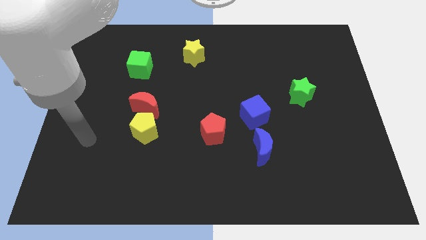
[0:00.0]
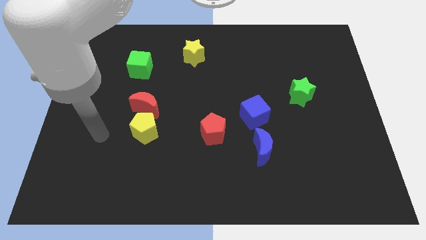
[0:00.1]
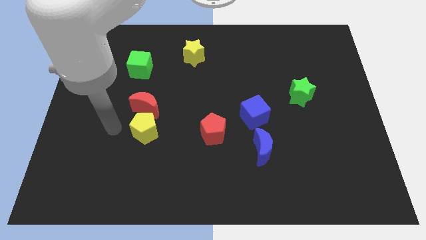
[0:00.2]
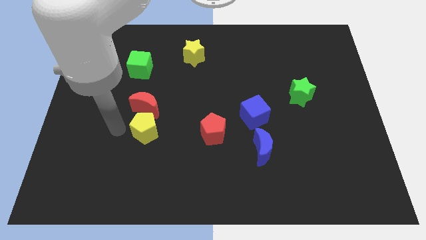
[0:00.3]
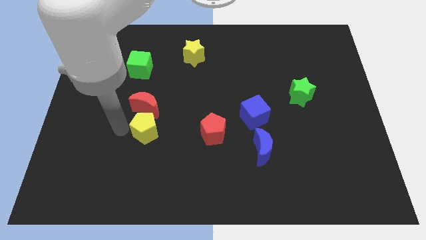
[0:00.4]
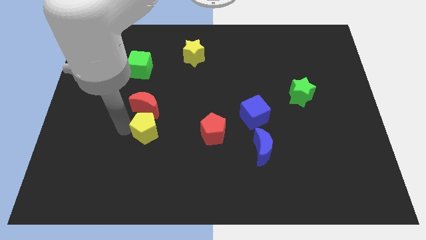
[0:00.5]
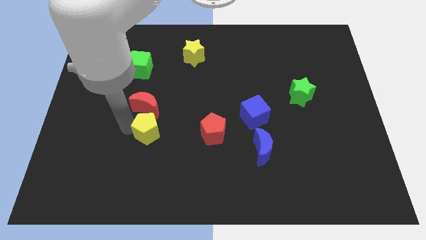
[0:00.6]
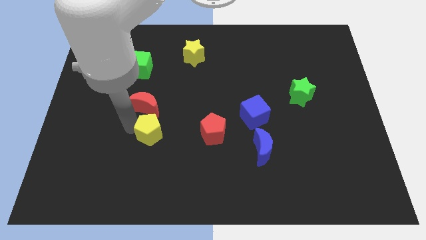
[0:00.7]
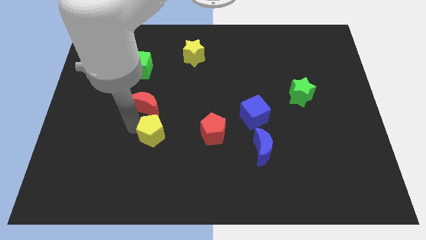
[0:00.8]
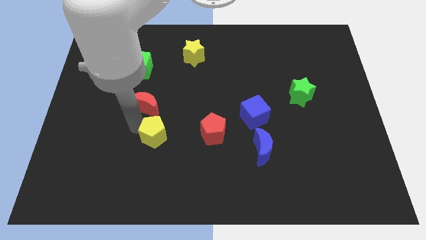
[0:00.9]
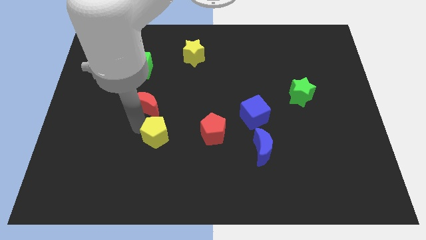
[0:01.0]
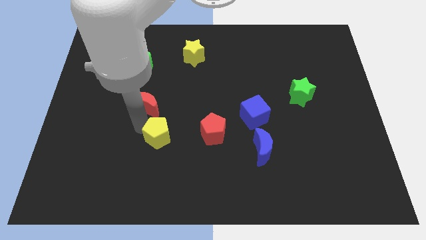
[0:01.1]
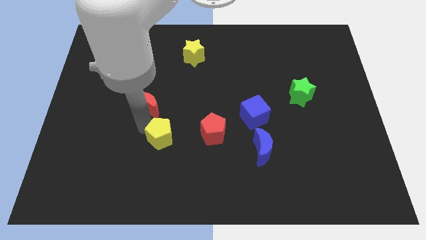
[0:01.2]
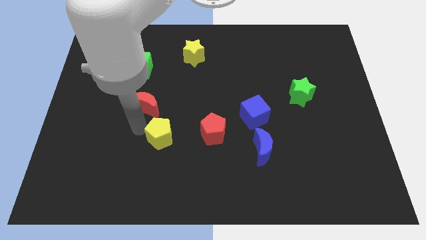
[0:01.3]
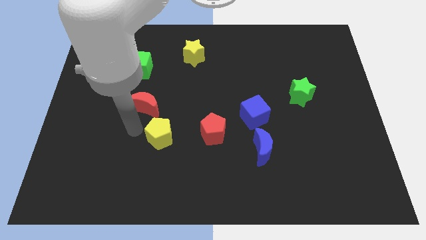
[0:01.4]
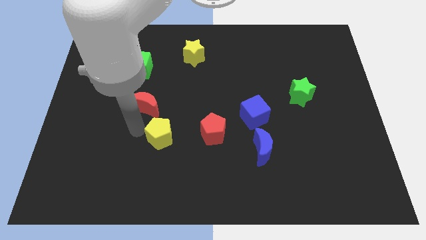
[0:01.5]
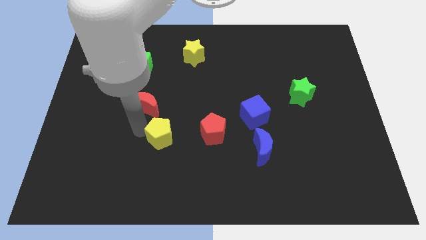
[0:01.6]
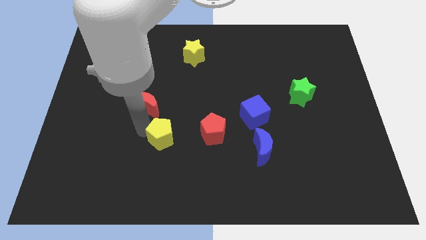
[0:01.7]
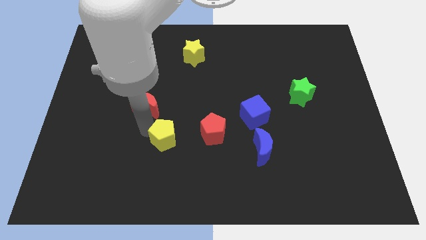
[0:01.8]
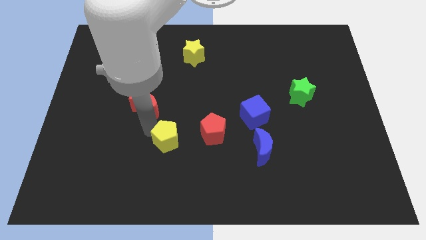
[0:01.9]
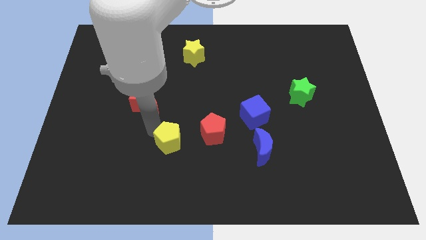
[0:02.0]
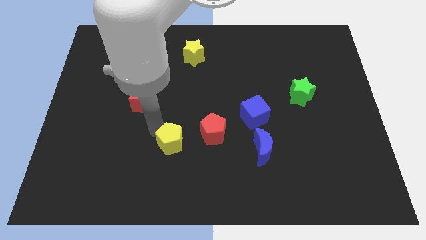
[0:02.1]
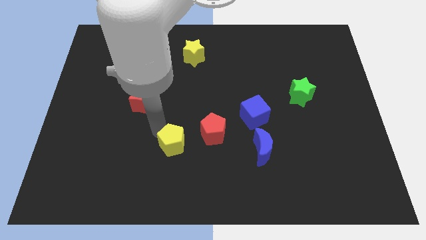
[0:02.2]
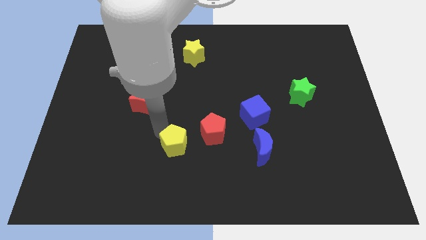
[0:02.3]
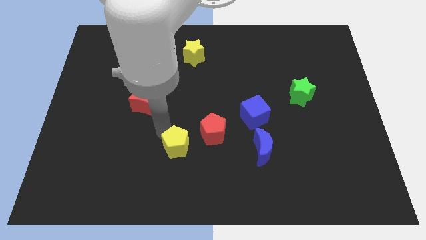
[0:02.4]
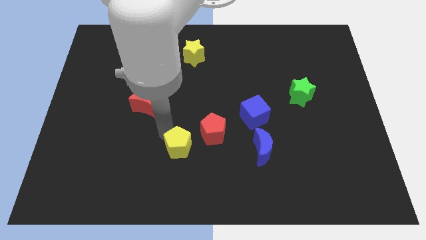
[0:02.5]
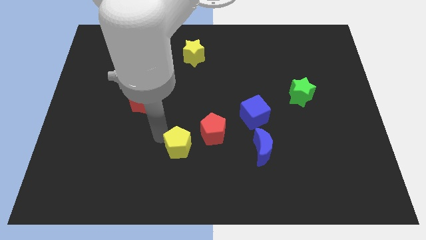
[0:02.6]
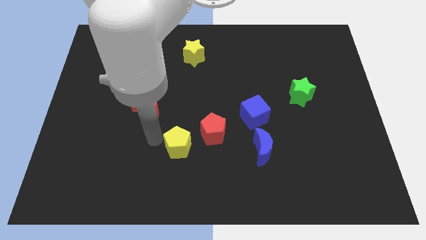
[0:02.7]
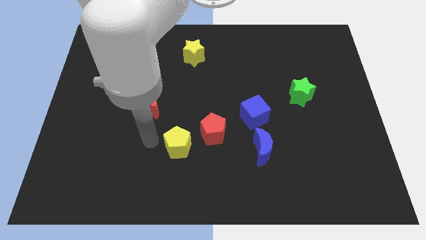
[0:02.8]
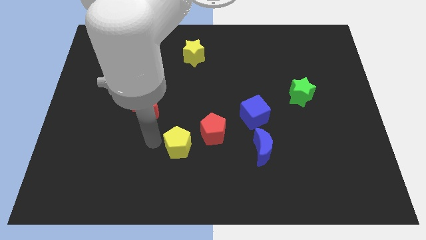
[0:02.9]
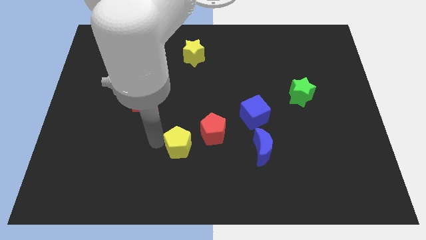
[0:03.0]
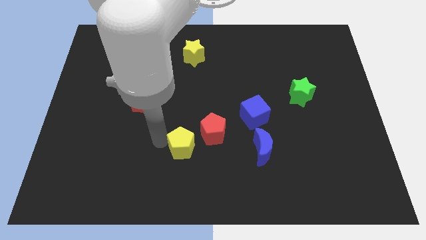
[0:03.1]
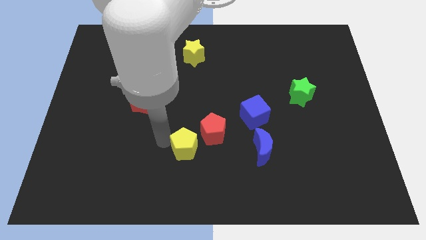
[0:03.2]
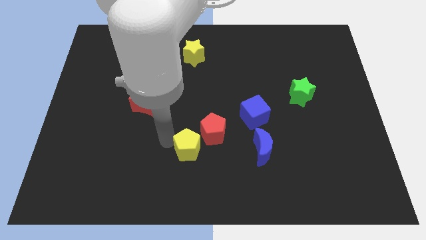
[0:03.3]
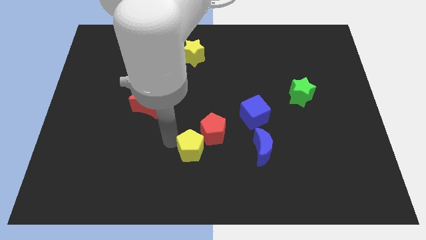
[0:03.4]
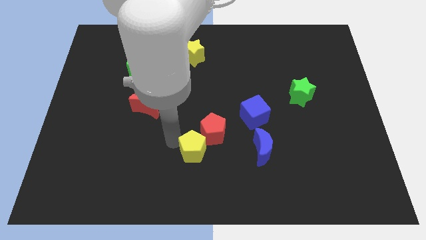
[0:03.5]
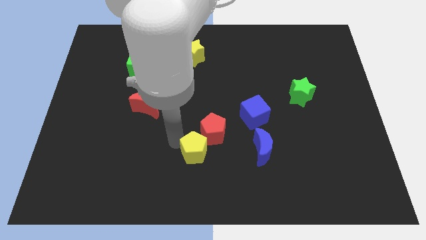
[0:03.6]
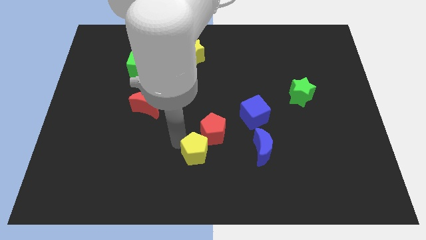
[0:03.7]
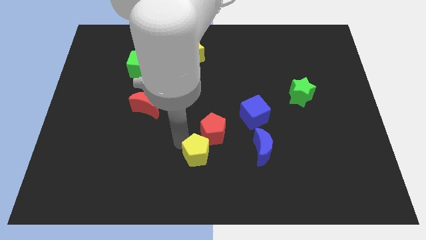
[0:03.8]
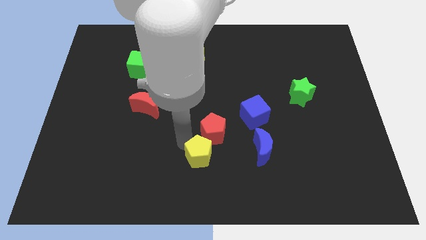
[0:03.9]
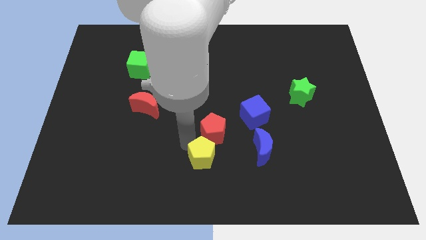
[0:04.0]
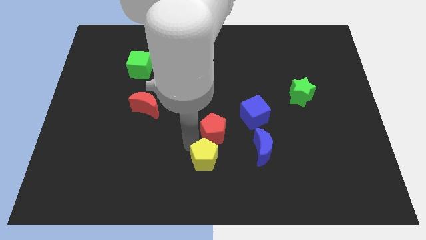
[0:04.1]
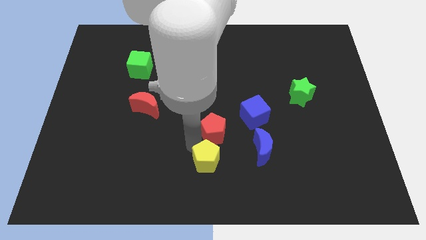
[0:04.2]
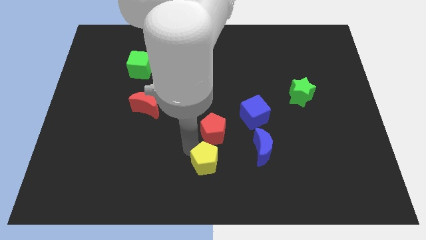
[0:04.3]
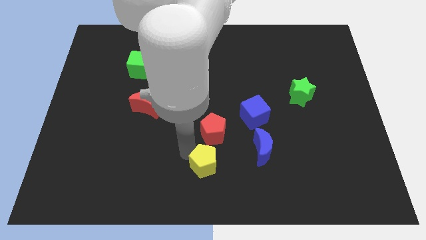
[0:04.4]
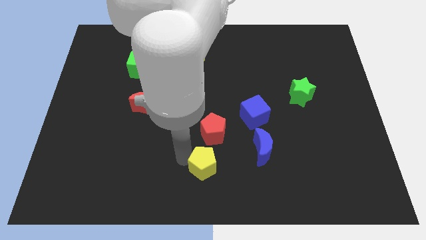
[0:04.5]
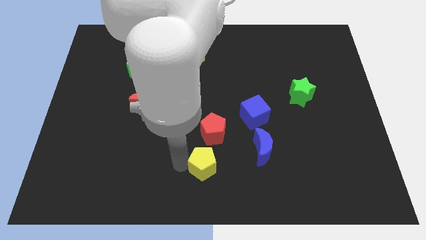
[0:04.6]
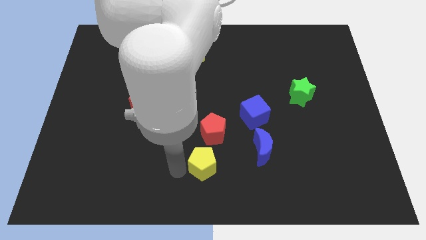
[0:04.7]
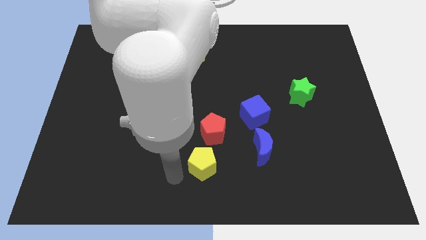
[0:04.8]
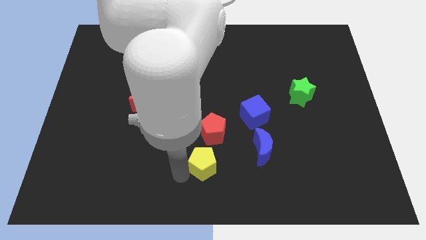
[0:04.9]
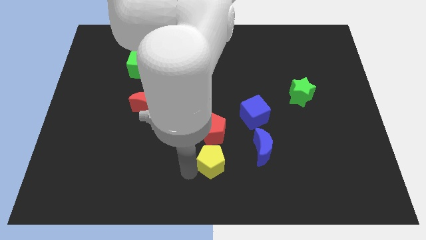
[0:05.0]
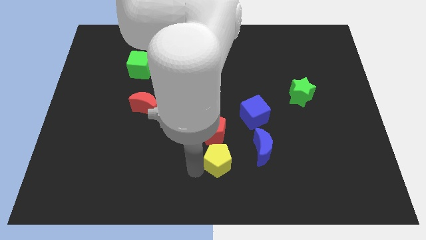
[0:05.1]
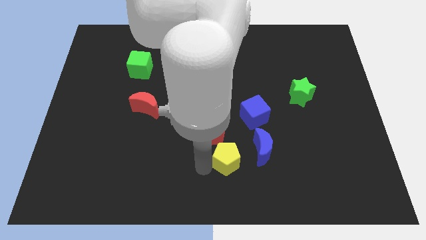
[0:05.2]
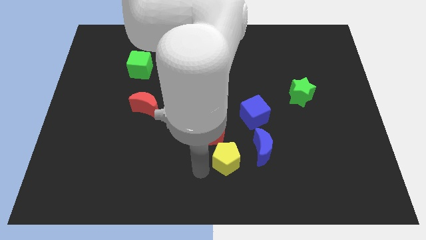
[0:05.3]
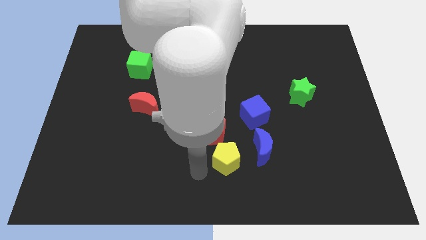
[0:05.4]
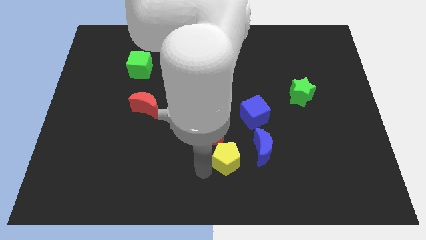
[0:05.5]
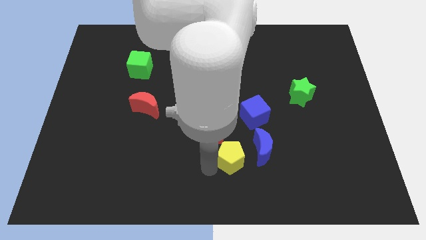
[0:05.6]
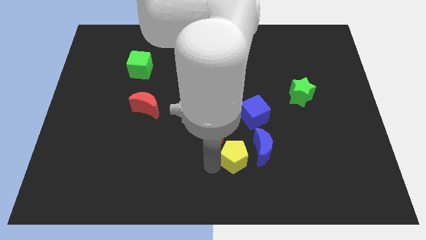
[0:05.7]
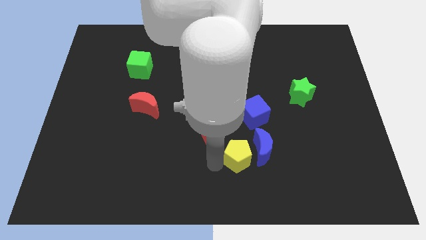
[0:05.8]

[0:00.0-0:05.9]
slide the yellow pentagon close to the blue moon

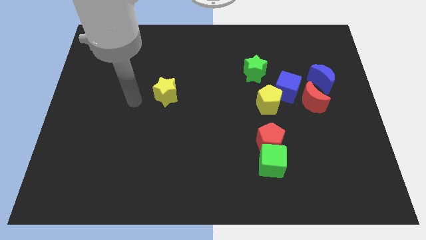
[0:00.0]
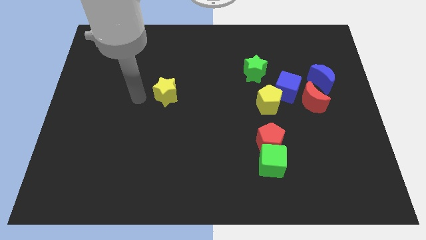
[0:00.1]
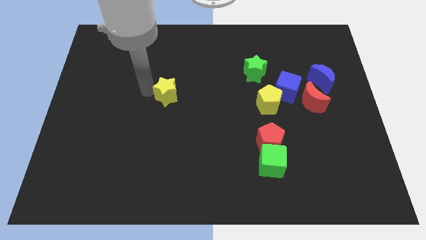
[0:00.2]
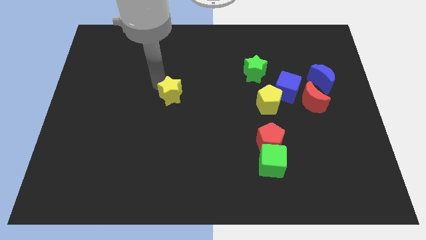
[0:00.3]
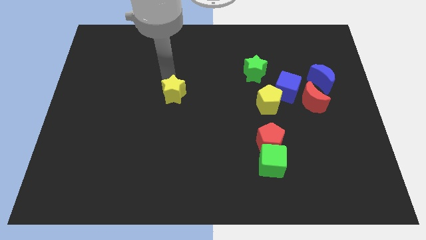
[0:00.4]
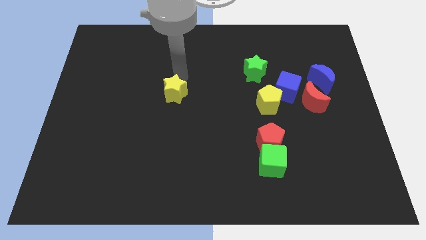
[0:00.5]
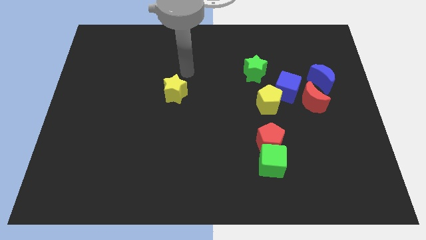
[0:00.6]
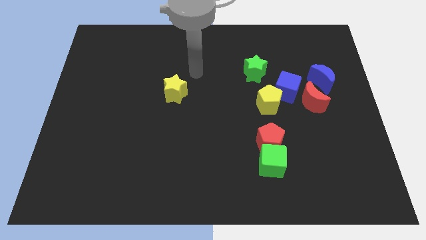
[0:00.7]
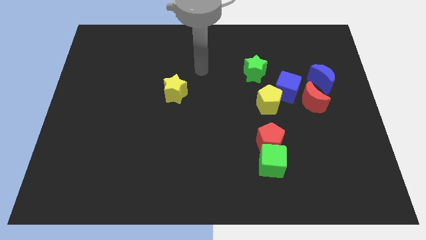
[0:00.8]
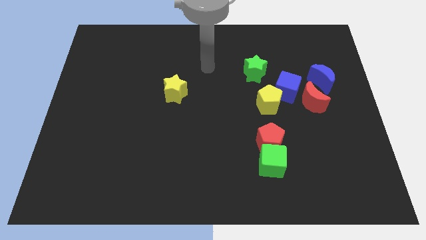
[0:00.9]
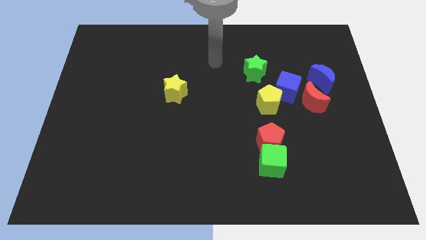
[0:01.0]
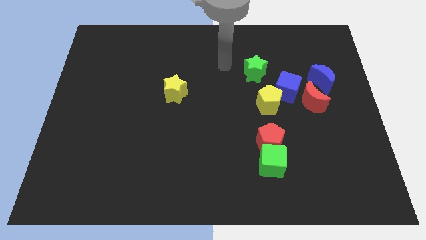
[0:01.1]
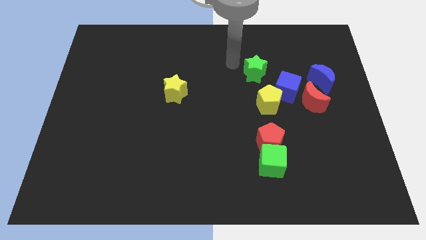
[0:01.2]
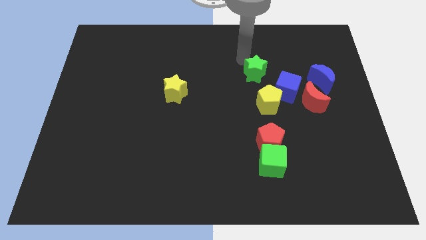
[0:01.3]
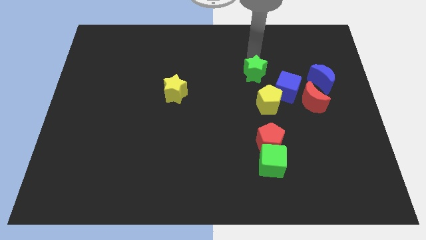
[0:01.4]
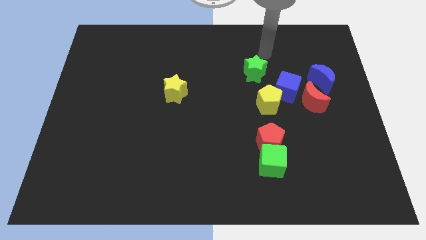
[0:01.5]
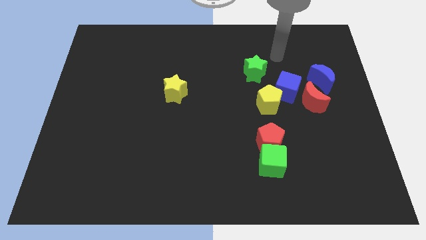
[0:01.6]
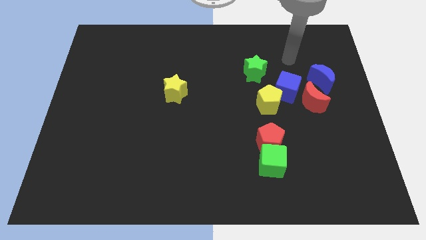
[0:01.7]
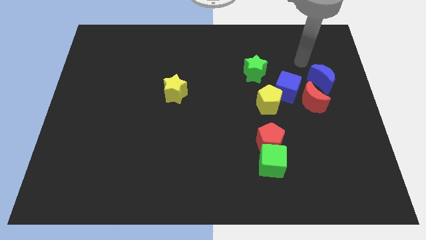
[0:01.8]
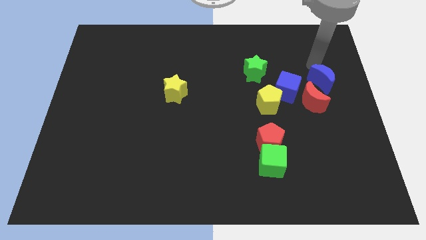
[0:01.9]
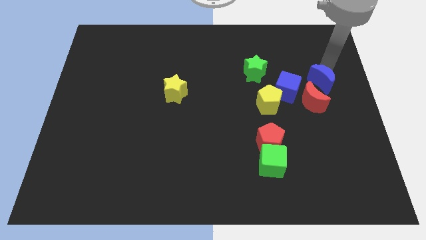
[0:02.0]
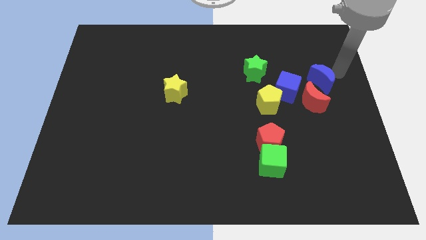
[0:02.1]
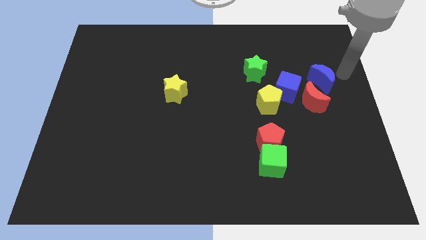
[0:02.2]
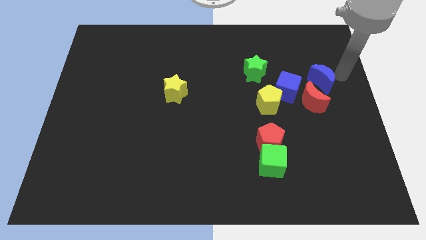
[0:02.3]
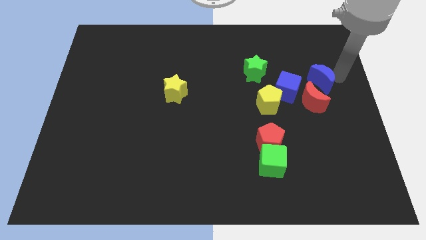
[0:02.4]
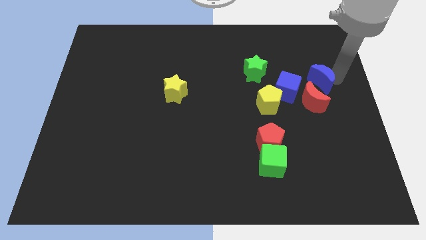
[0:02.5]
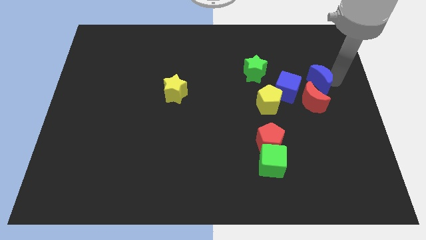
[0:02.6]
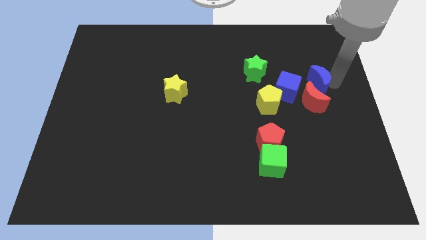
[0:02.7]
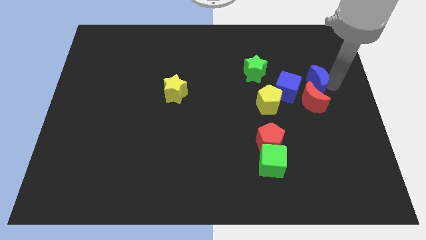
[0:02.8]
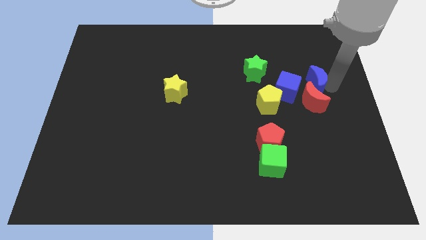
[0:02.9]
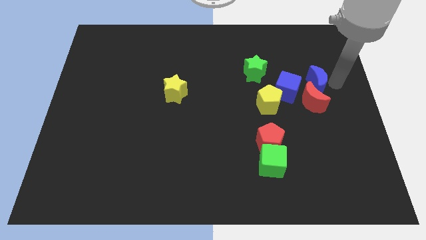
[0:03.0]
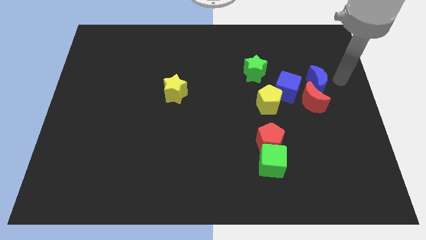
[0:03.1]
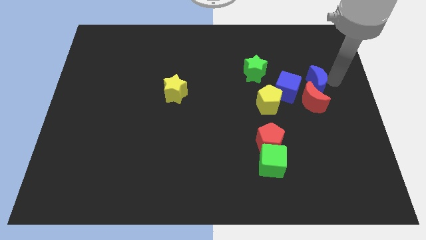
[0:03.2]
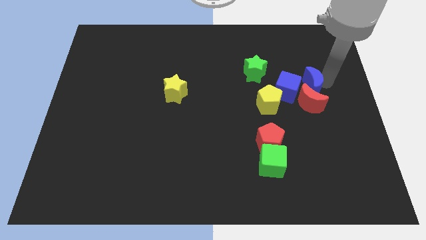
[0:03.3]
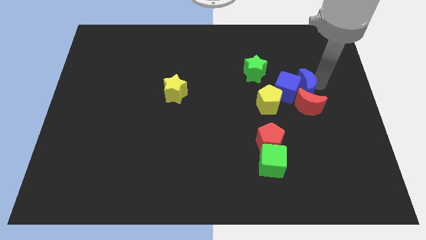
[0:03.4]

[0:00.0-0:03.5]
push the blue moon to the blue cube
